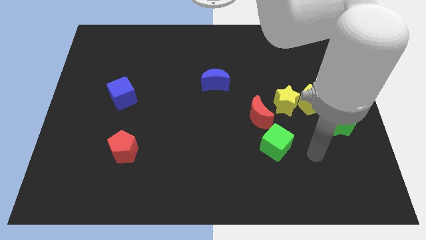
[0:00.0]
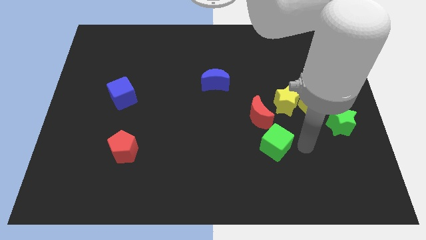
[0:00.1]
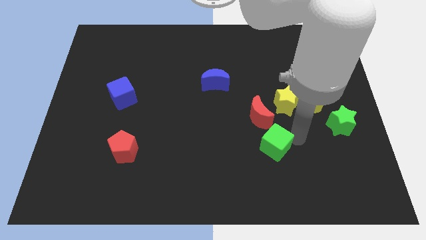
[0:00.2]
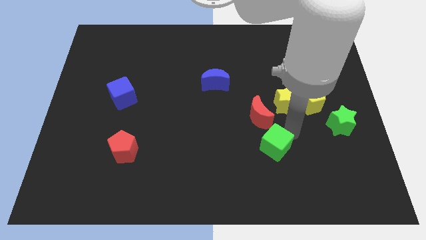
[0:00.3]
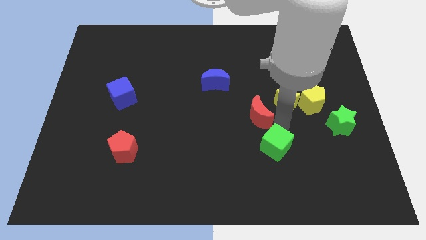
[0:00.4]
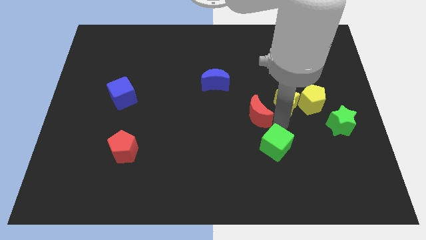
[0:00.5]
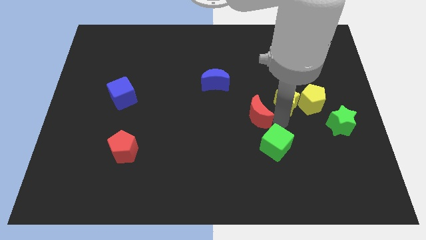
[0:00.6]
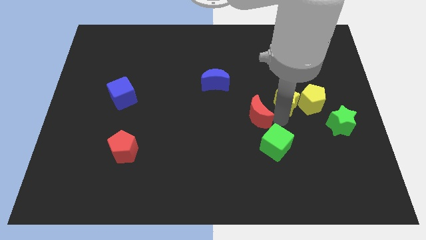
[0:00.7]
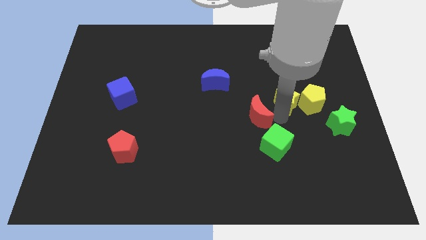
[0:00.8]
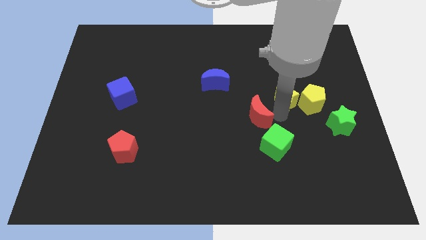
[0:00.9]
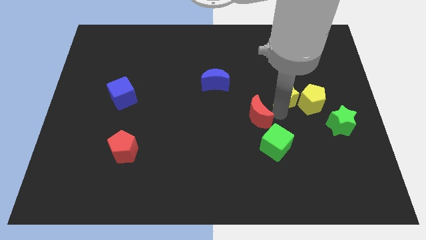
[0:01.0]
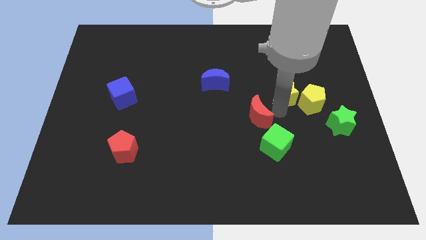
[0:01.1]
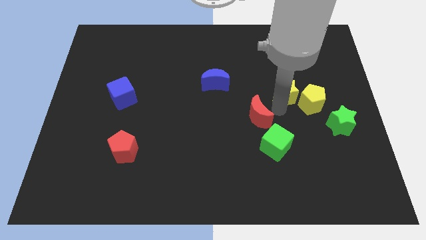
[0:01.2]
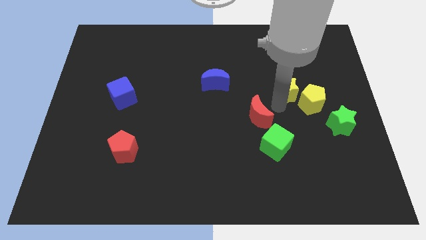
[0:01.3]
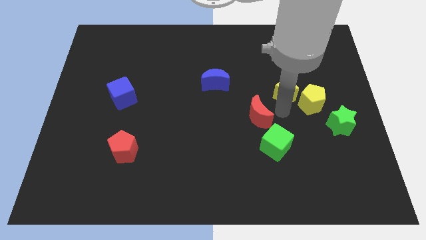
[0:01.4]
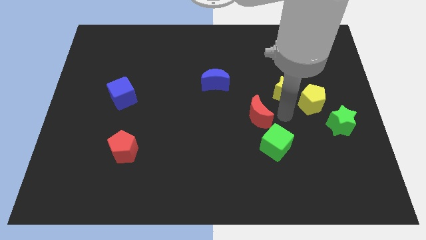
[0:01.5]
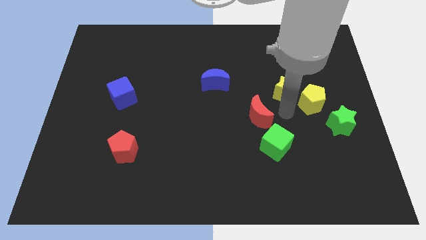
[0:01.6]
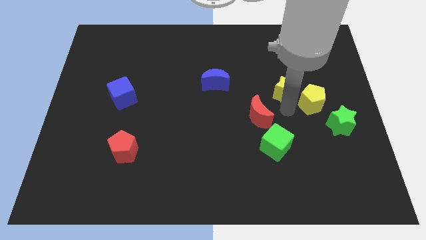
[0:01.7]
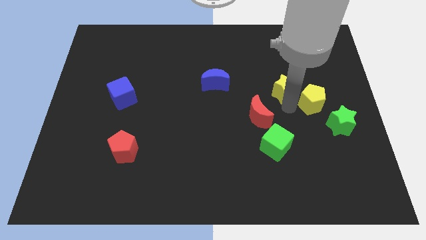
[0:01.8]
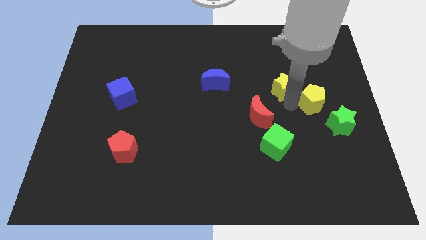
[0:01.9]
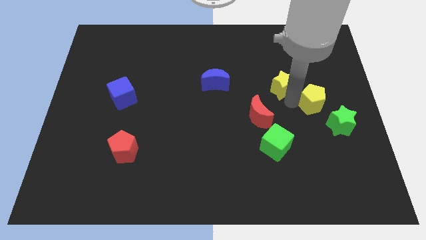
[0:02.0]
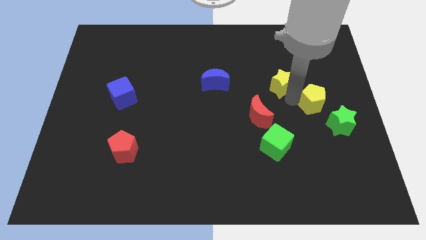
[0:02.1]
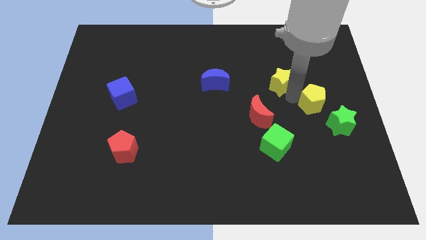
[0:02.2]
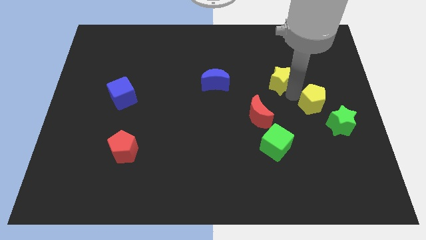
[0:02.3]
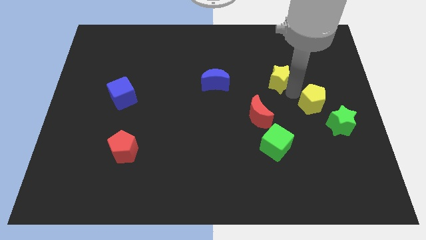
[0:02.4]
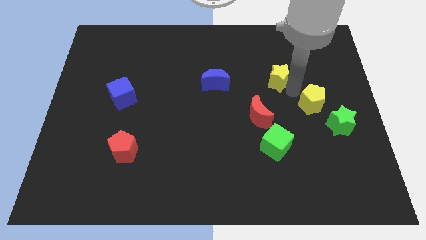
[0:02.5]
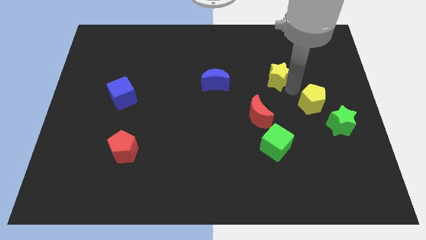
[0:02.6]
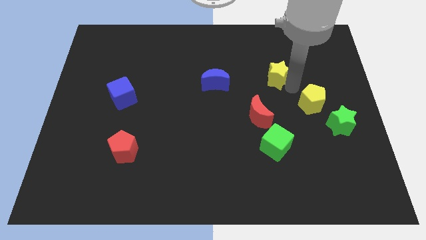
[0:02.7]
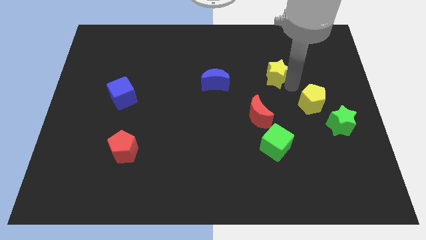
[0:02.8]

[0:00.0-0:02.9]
move the yellow star away from the yellow pentagon and red moon

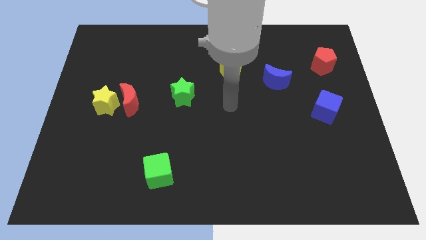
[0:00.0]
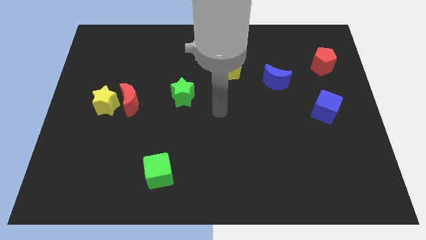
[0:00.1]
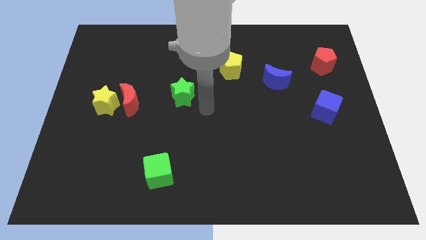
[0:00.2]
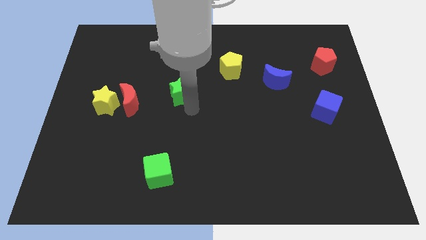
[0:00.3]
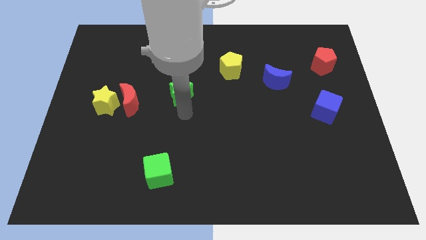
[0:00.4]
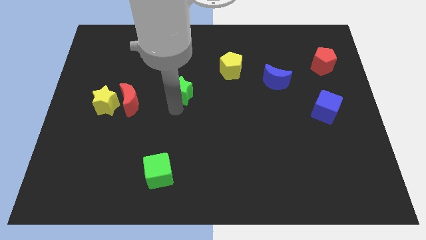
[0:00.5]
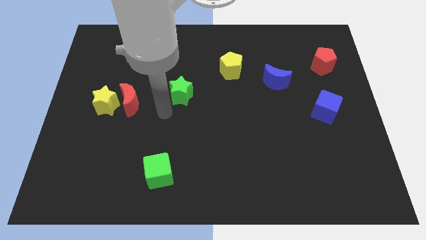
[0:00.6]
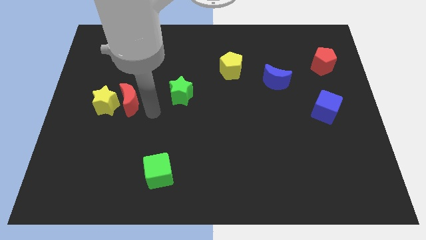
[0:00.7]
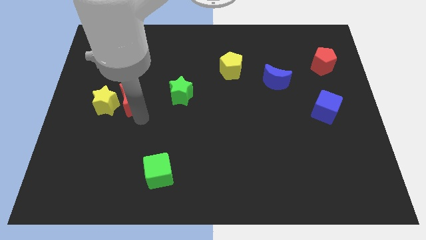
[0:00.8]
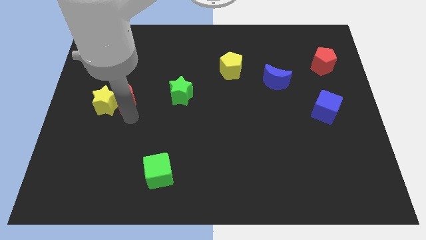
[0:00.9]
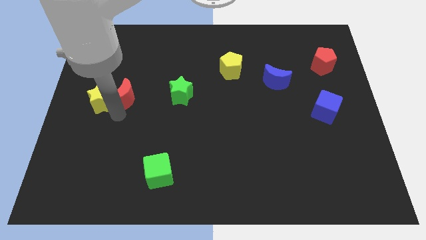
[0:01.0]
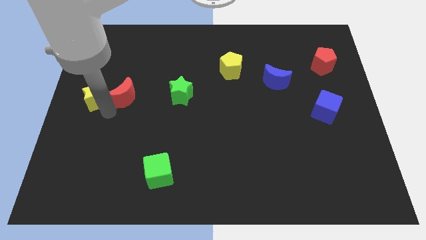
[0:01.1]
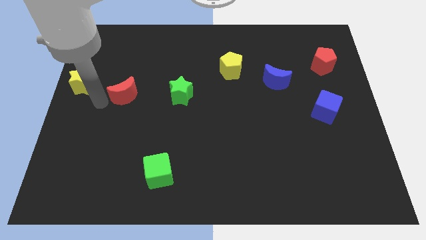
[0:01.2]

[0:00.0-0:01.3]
separate the red moon from the yellow star

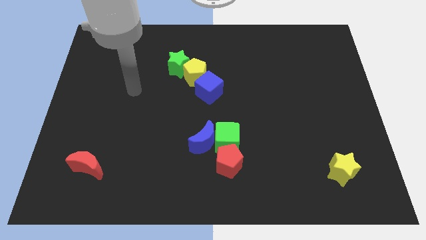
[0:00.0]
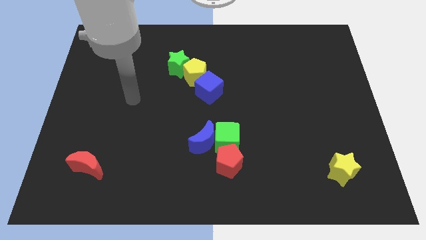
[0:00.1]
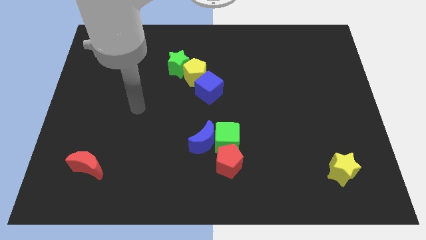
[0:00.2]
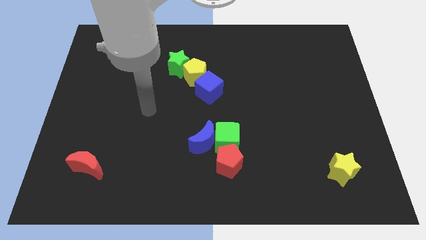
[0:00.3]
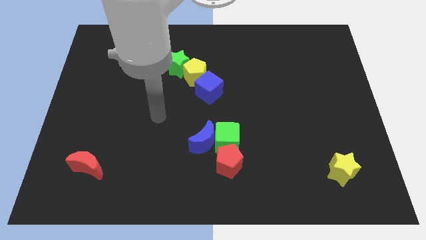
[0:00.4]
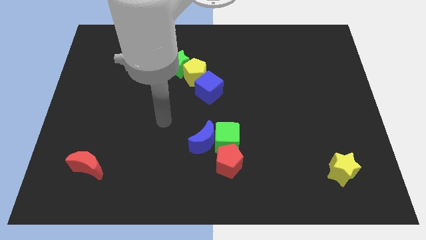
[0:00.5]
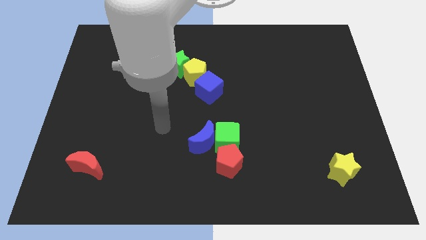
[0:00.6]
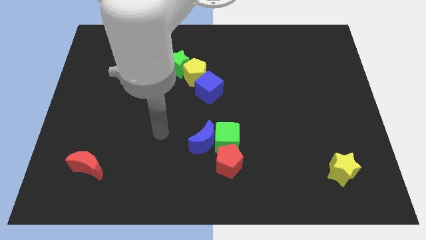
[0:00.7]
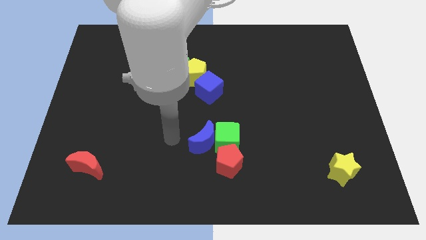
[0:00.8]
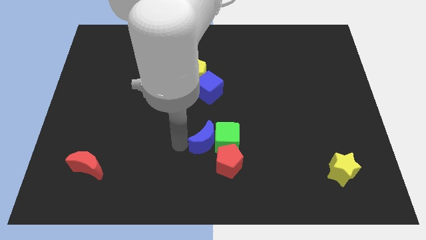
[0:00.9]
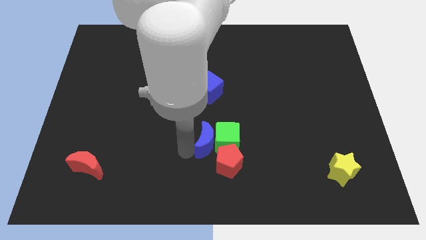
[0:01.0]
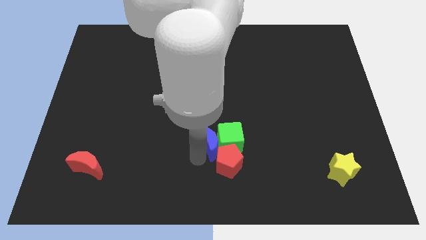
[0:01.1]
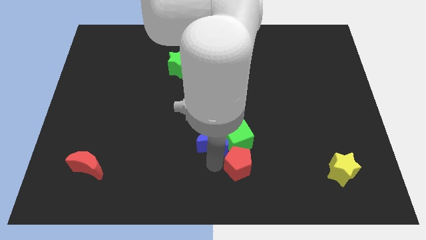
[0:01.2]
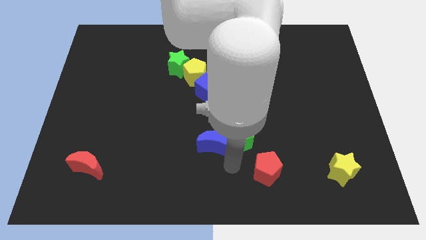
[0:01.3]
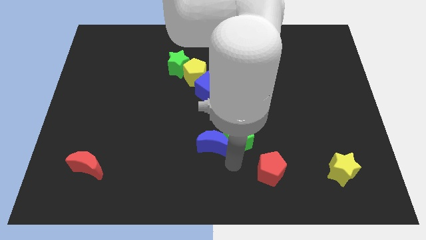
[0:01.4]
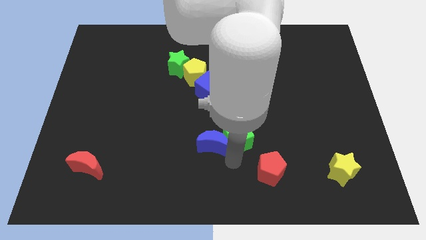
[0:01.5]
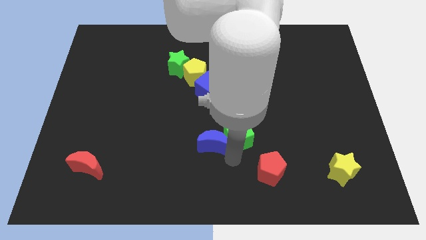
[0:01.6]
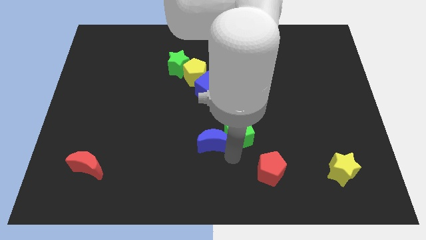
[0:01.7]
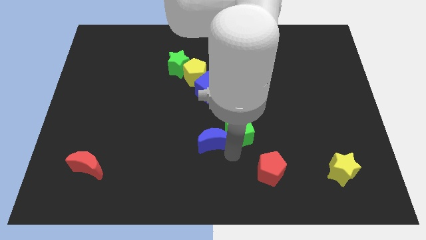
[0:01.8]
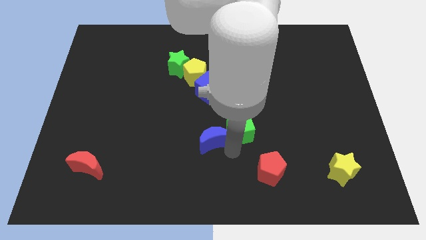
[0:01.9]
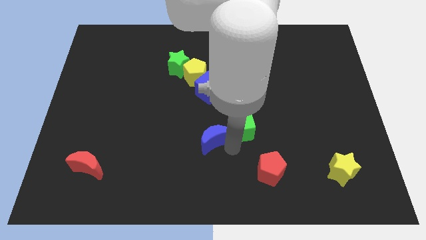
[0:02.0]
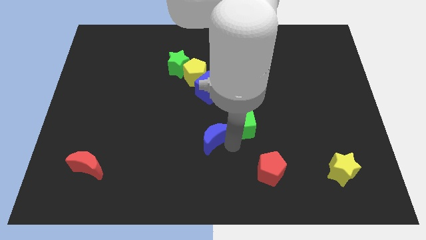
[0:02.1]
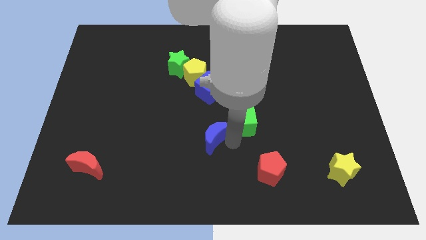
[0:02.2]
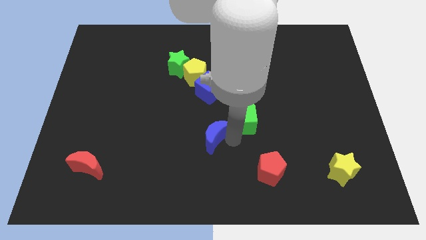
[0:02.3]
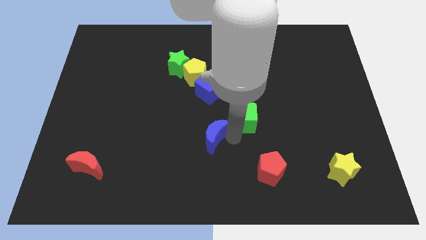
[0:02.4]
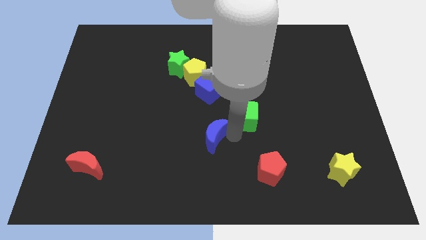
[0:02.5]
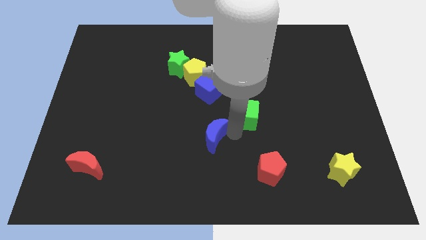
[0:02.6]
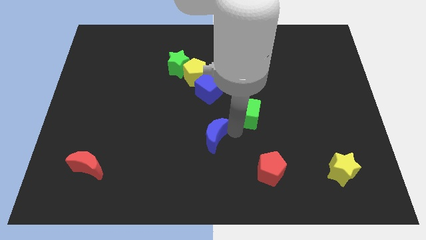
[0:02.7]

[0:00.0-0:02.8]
pull the green cube apart from the blue moon and red pentagon

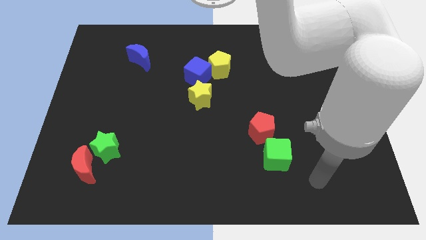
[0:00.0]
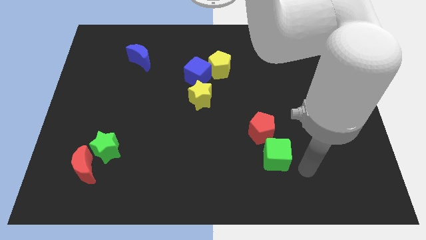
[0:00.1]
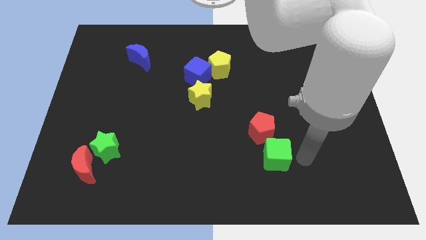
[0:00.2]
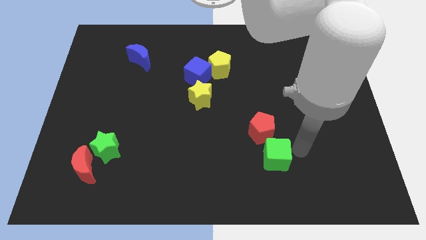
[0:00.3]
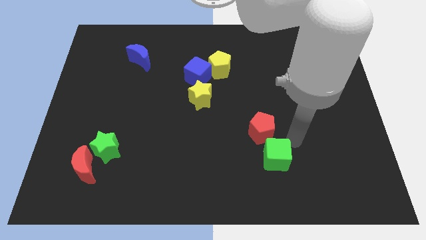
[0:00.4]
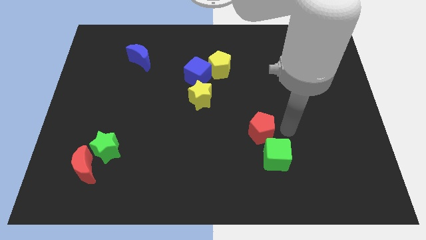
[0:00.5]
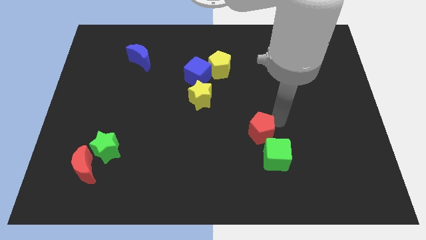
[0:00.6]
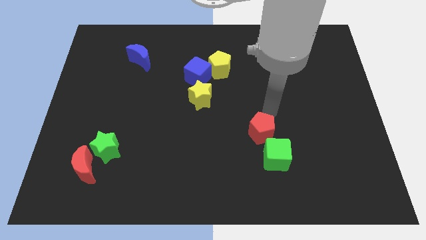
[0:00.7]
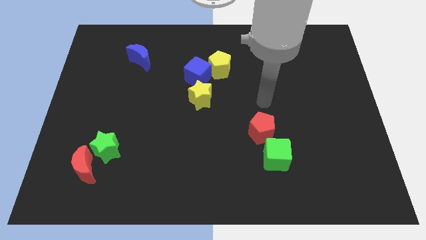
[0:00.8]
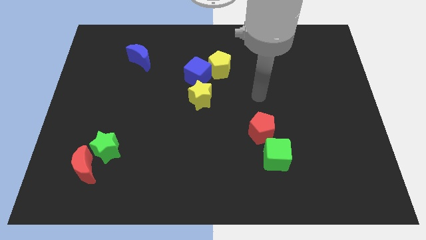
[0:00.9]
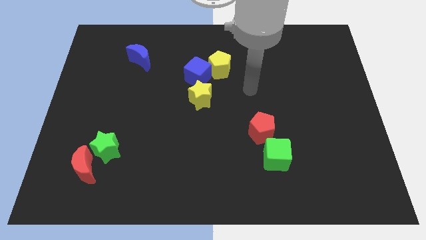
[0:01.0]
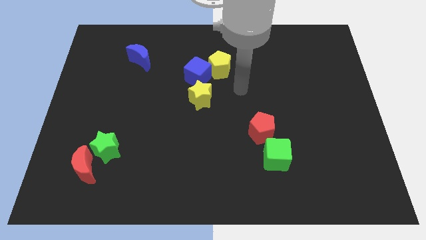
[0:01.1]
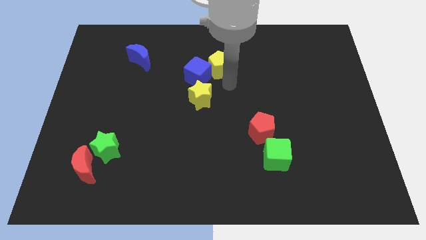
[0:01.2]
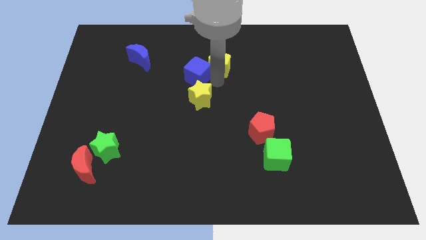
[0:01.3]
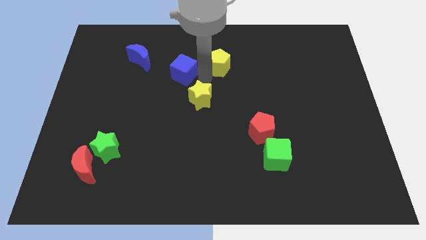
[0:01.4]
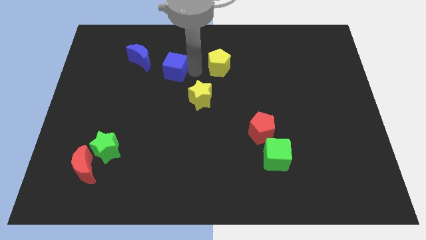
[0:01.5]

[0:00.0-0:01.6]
move the yellow pentagon away from the blue cube

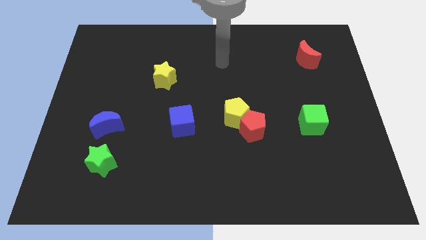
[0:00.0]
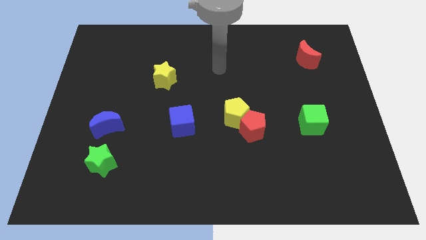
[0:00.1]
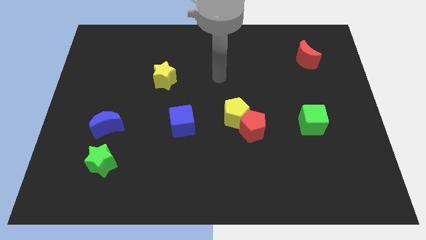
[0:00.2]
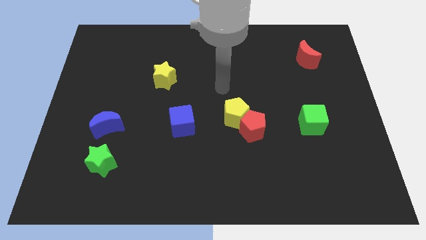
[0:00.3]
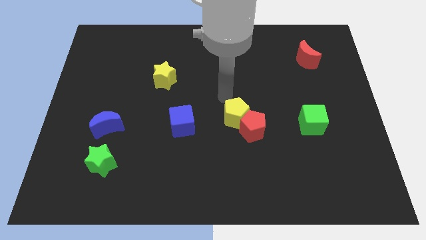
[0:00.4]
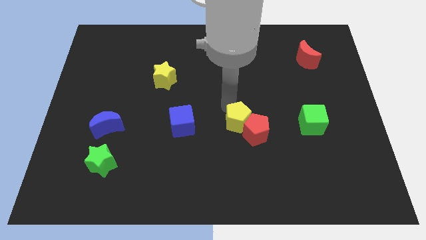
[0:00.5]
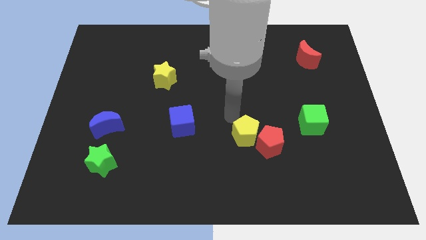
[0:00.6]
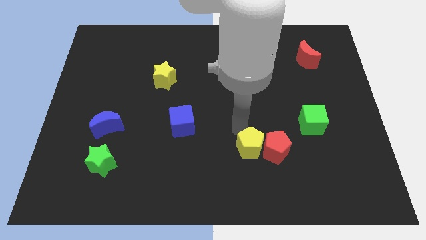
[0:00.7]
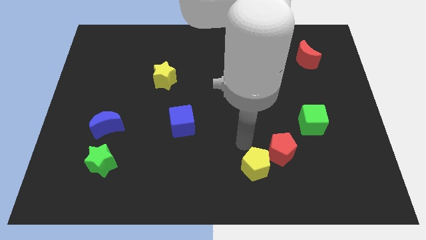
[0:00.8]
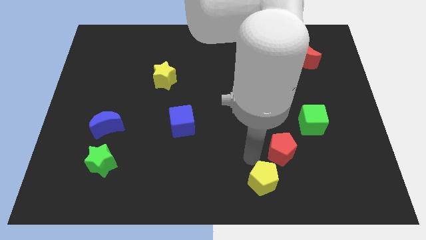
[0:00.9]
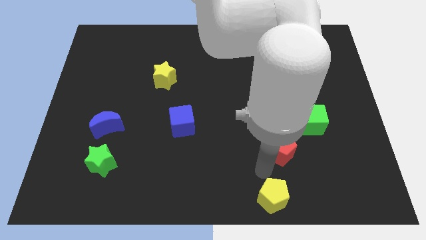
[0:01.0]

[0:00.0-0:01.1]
separate the red pentagon from the yellow pentagon
